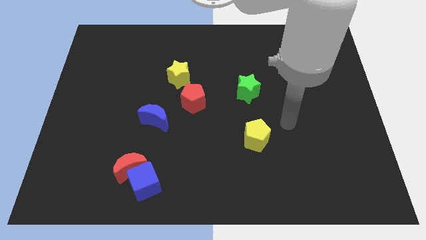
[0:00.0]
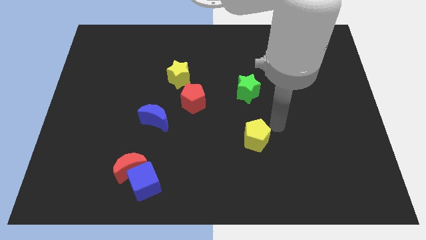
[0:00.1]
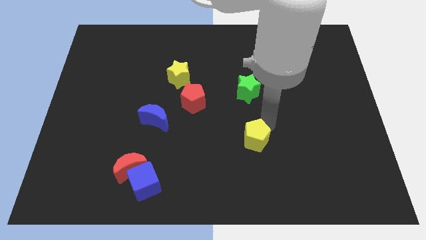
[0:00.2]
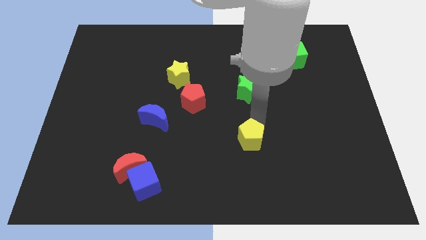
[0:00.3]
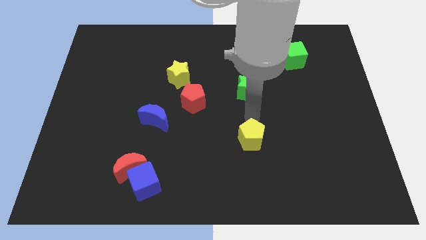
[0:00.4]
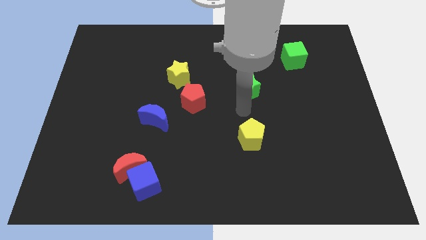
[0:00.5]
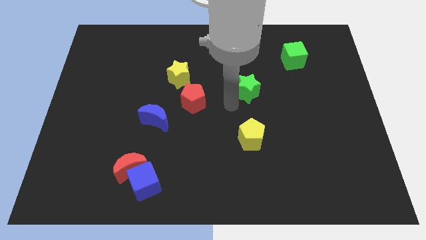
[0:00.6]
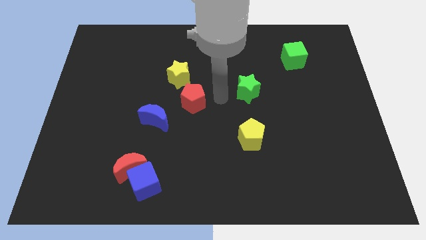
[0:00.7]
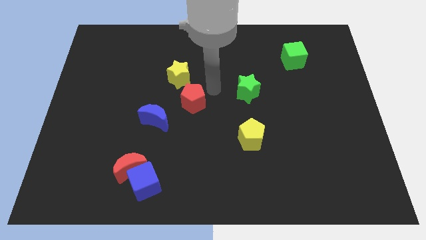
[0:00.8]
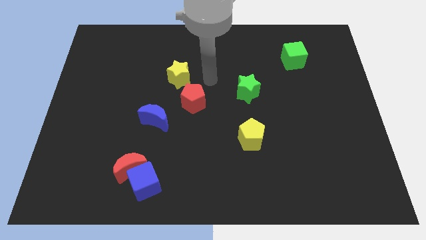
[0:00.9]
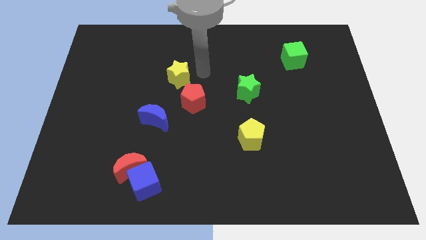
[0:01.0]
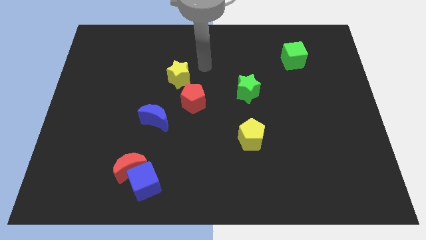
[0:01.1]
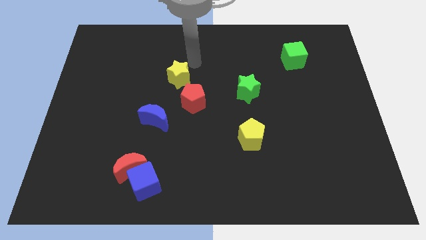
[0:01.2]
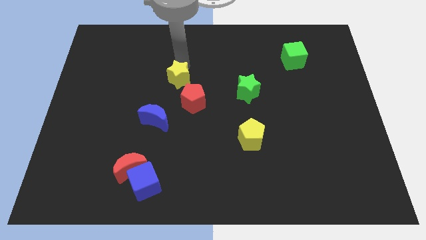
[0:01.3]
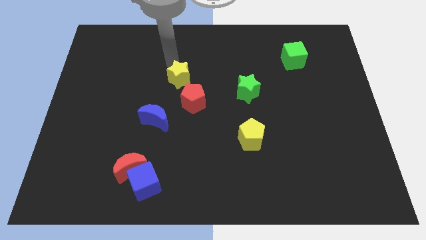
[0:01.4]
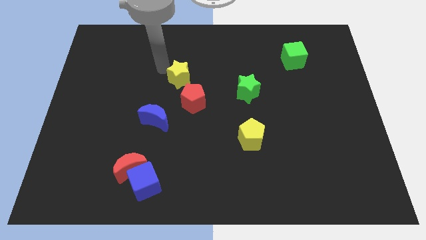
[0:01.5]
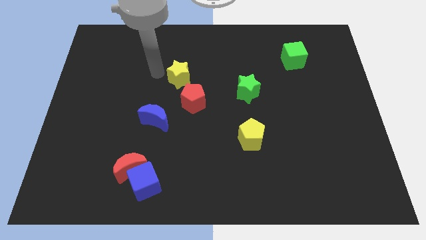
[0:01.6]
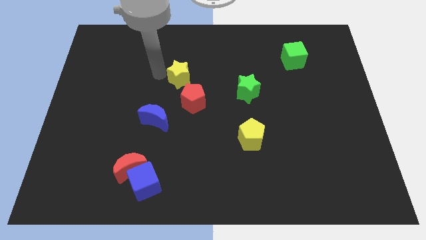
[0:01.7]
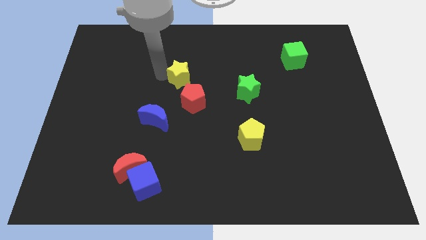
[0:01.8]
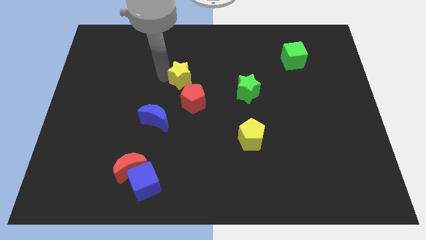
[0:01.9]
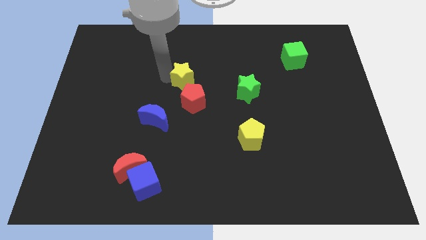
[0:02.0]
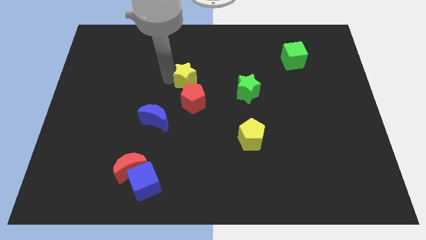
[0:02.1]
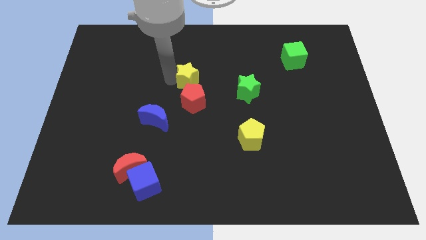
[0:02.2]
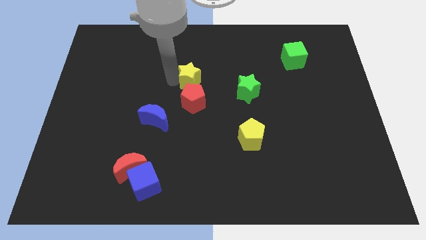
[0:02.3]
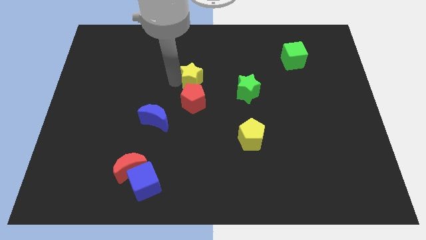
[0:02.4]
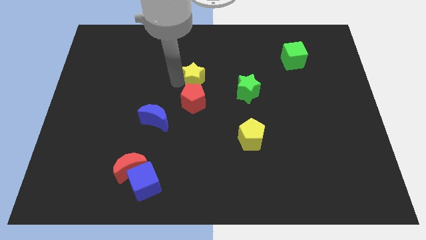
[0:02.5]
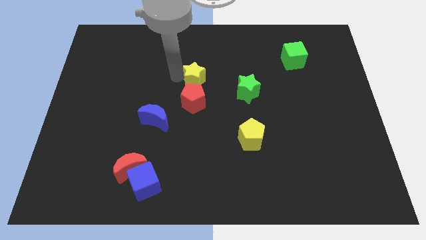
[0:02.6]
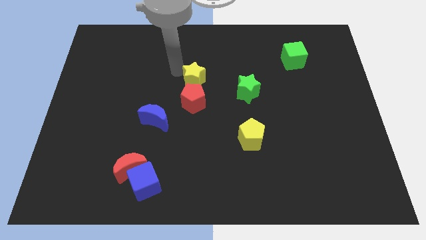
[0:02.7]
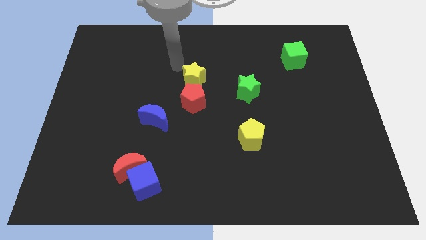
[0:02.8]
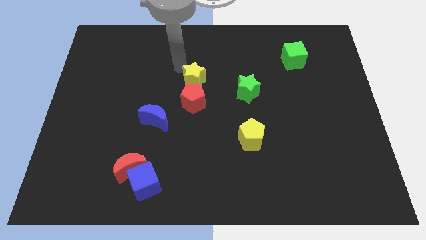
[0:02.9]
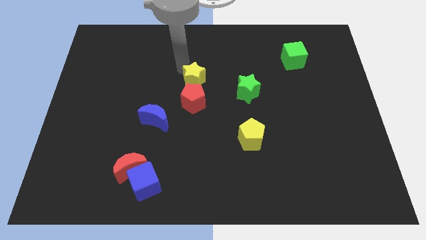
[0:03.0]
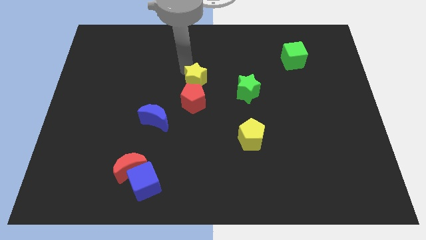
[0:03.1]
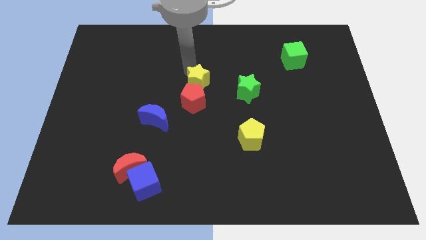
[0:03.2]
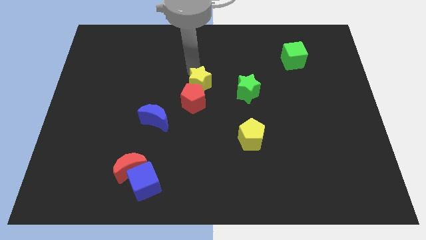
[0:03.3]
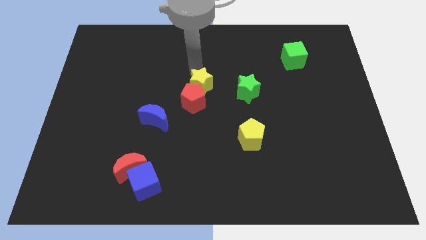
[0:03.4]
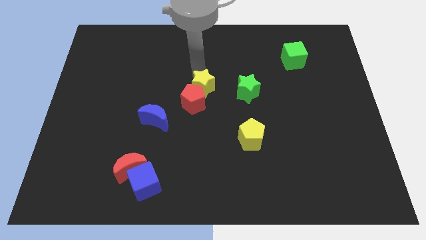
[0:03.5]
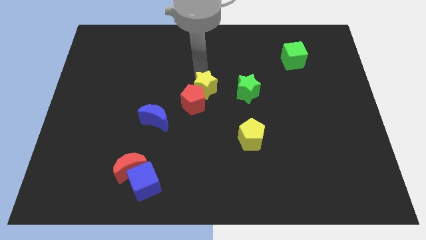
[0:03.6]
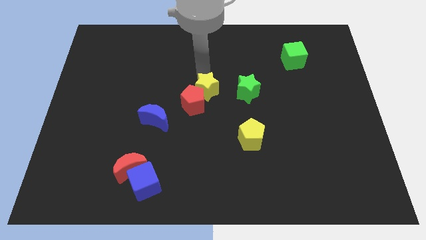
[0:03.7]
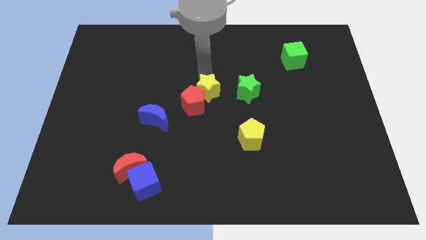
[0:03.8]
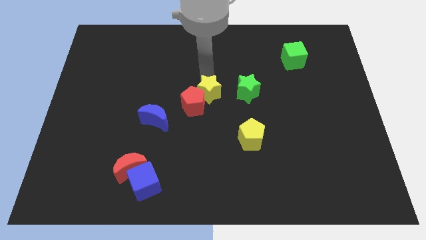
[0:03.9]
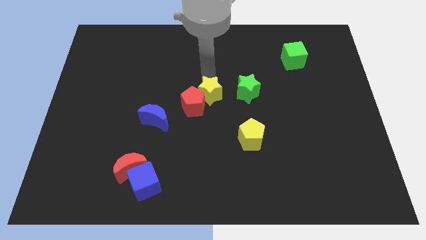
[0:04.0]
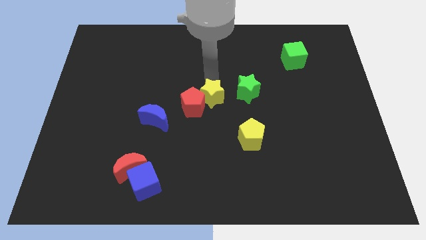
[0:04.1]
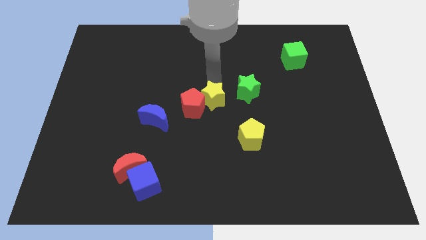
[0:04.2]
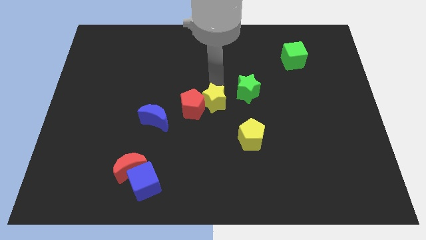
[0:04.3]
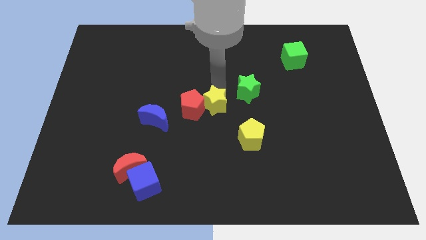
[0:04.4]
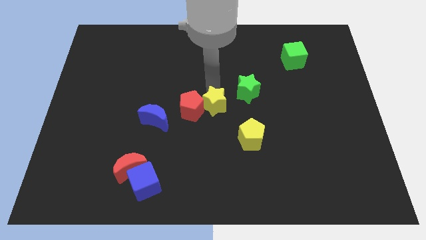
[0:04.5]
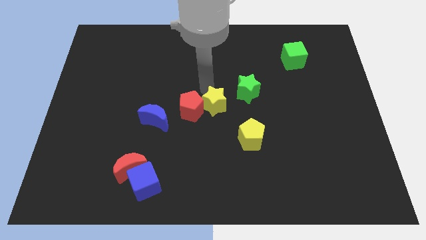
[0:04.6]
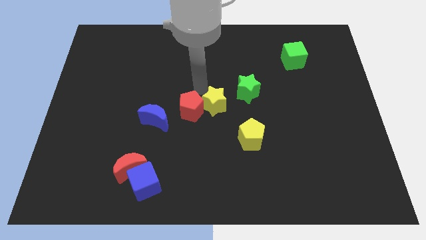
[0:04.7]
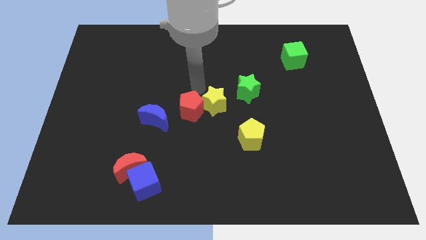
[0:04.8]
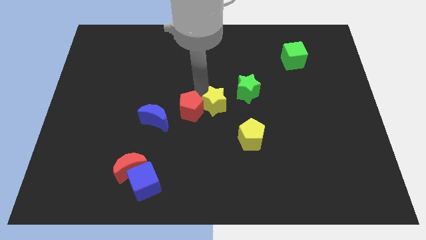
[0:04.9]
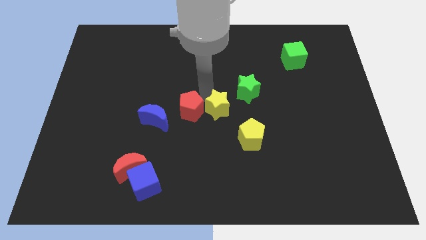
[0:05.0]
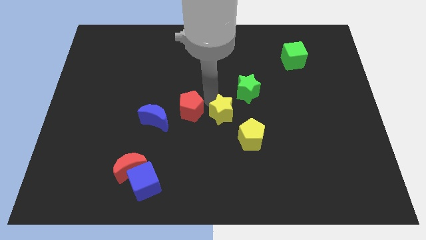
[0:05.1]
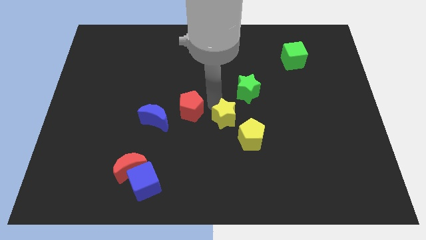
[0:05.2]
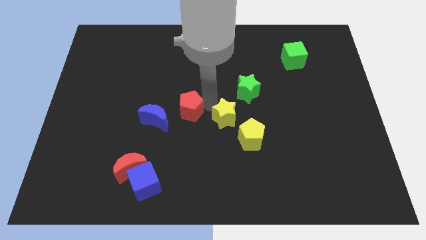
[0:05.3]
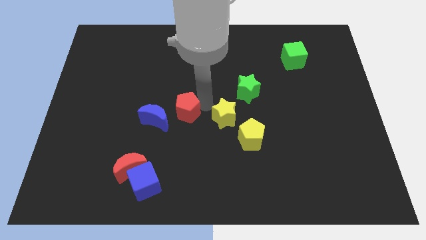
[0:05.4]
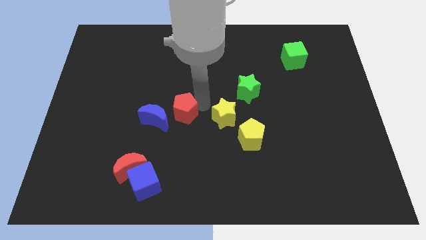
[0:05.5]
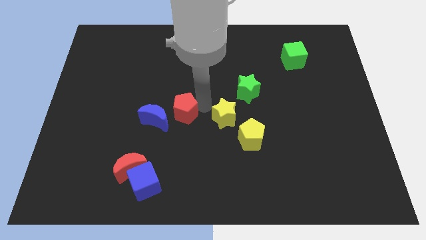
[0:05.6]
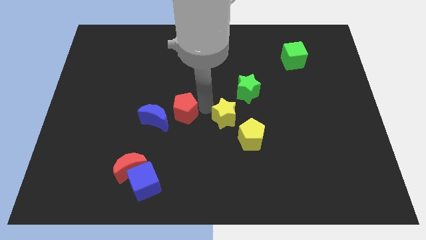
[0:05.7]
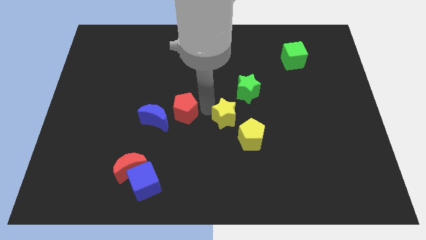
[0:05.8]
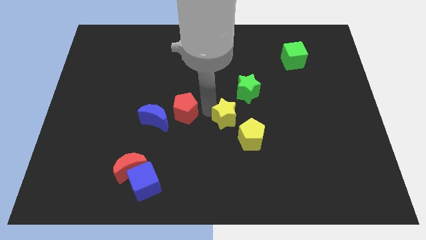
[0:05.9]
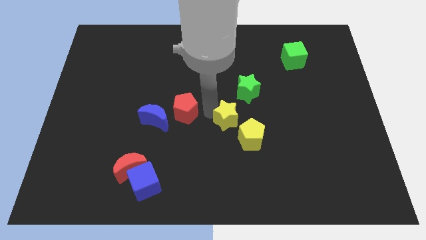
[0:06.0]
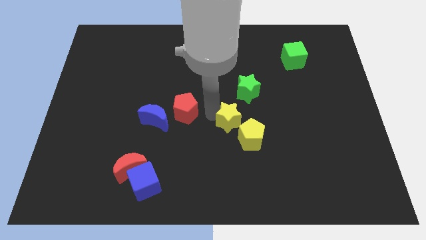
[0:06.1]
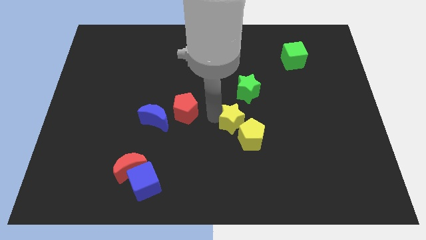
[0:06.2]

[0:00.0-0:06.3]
put the yellow star close to the yellow pentagon
